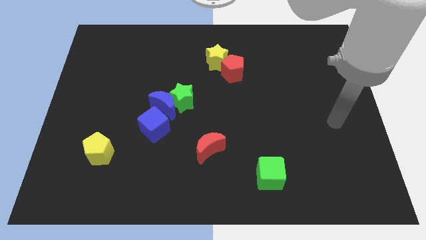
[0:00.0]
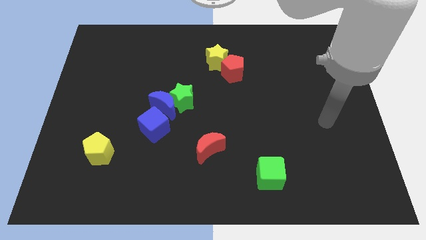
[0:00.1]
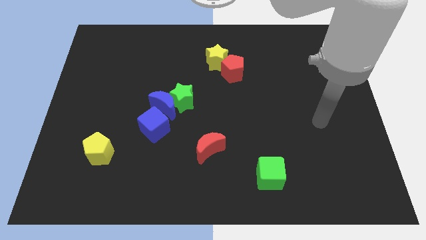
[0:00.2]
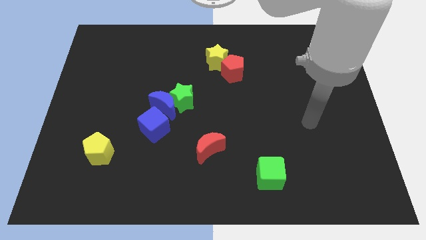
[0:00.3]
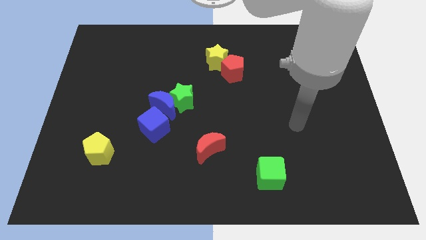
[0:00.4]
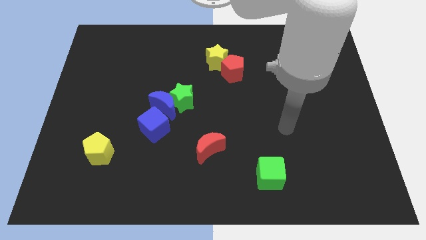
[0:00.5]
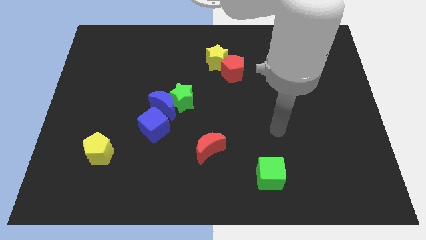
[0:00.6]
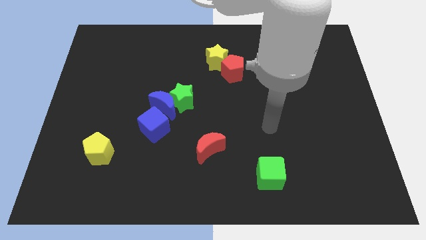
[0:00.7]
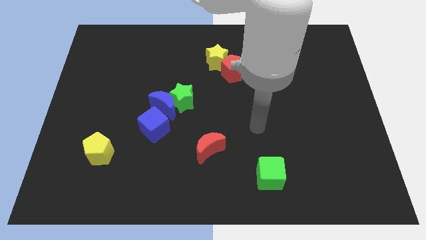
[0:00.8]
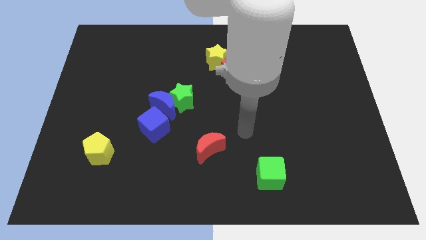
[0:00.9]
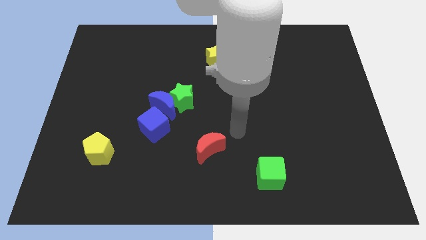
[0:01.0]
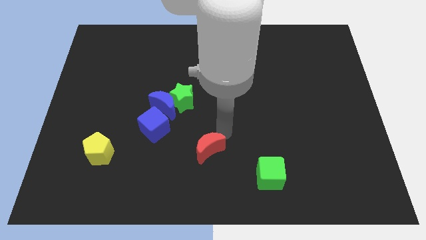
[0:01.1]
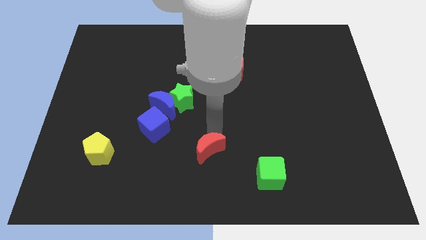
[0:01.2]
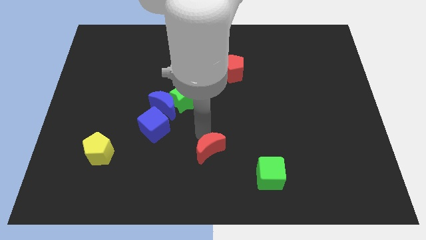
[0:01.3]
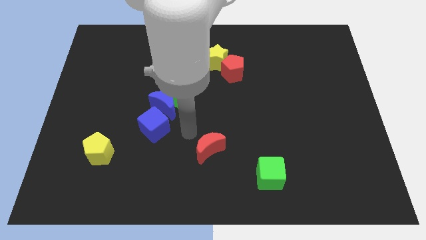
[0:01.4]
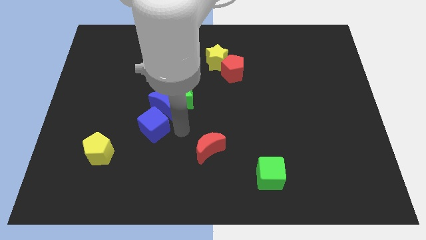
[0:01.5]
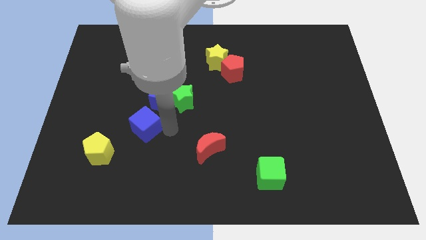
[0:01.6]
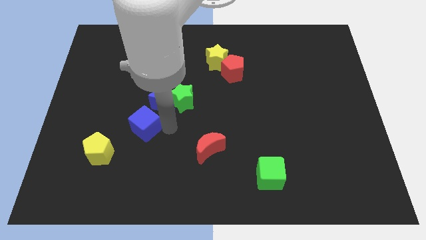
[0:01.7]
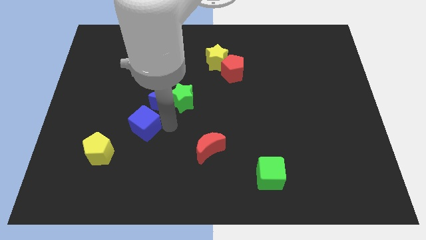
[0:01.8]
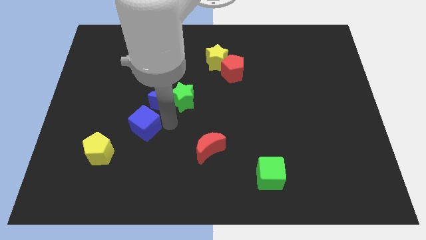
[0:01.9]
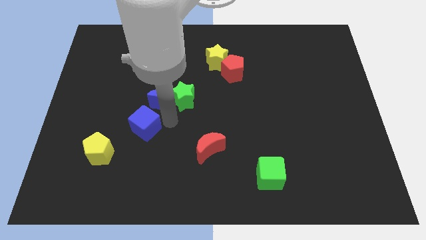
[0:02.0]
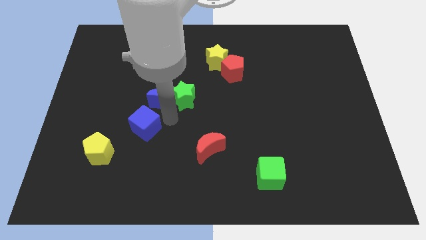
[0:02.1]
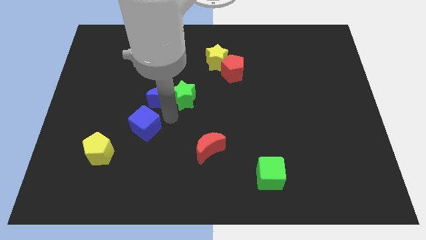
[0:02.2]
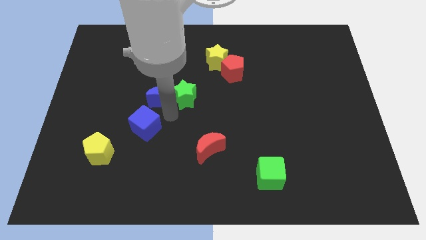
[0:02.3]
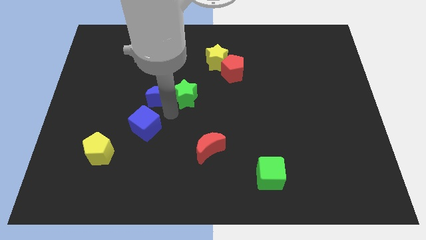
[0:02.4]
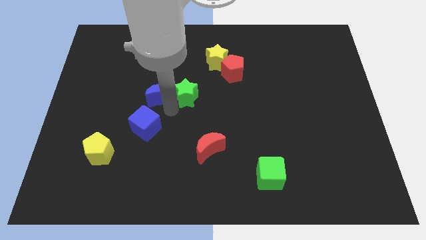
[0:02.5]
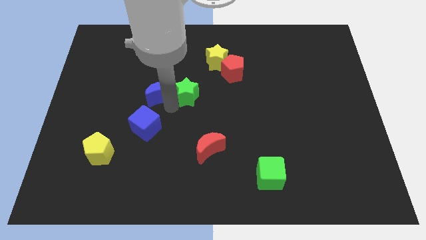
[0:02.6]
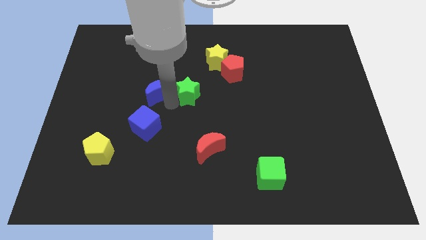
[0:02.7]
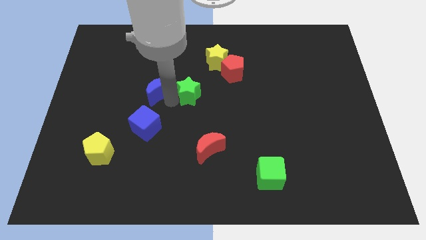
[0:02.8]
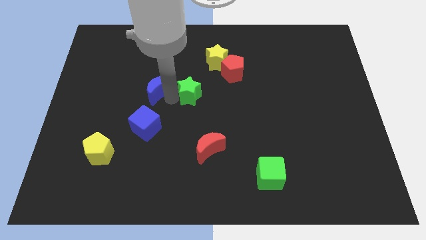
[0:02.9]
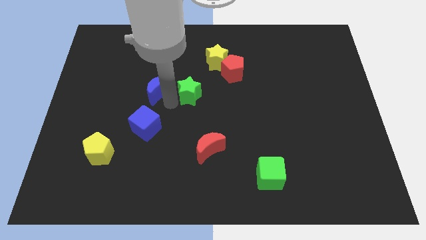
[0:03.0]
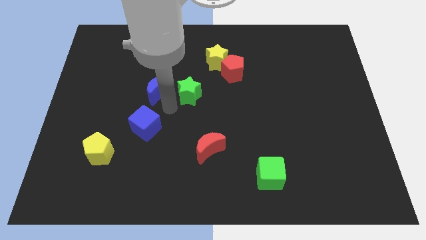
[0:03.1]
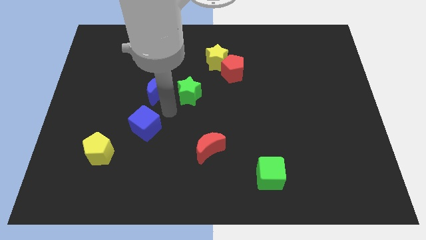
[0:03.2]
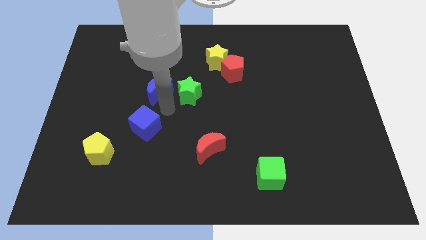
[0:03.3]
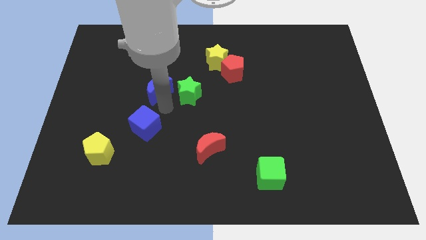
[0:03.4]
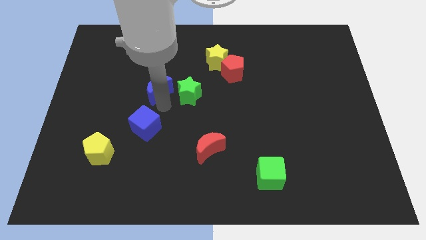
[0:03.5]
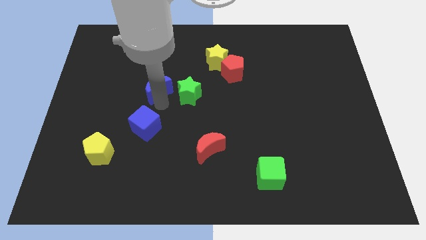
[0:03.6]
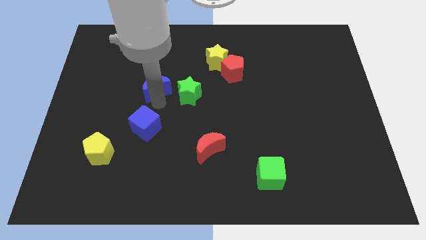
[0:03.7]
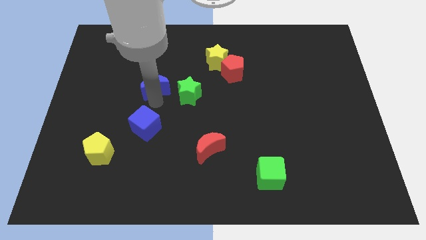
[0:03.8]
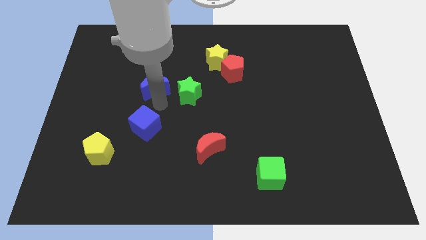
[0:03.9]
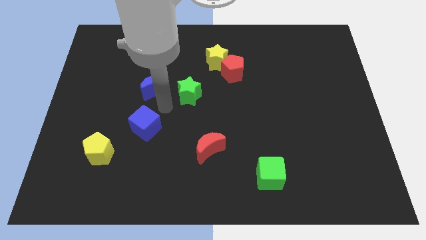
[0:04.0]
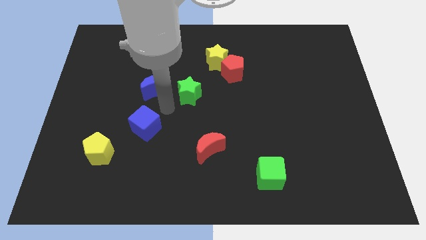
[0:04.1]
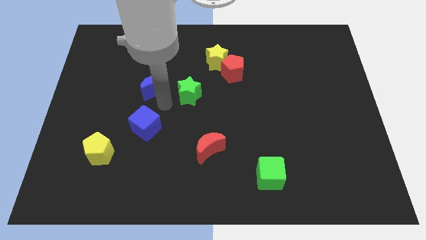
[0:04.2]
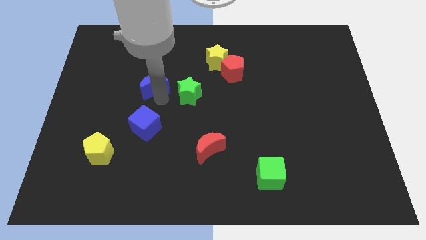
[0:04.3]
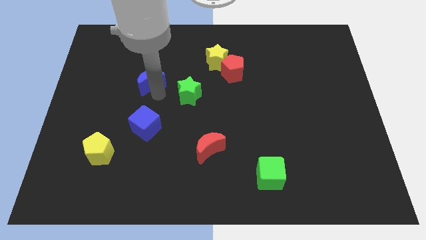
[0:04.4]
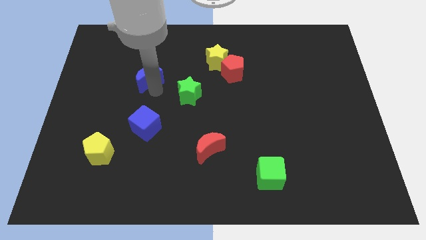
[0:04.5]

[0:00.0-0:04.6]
move the blue moon away from the green star and blue cube

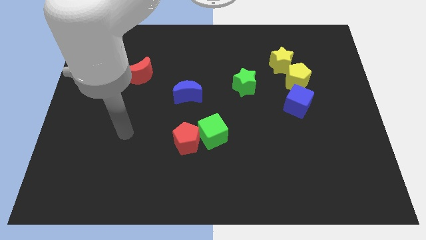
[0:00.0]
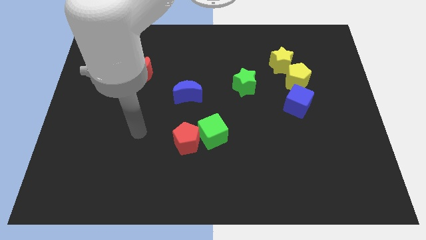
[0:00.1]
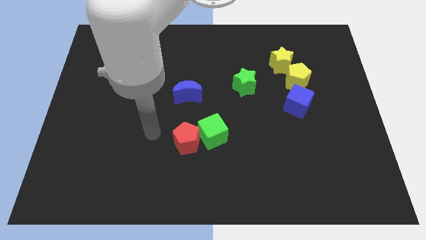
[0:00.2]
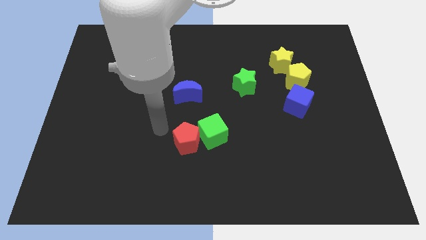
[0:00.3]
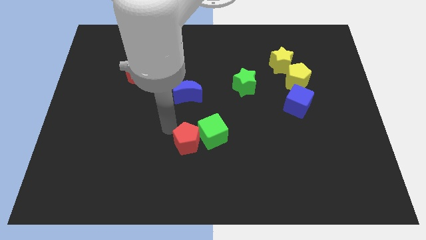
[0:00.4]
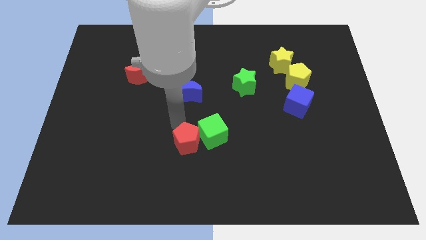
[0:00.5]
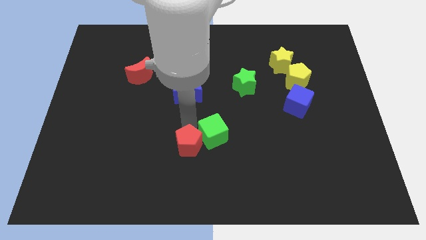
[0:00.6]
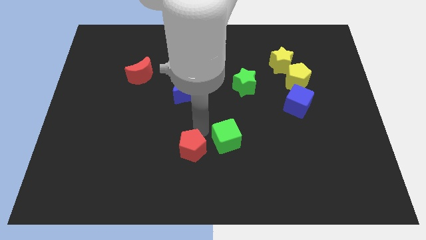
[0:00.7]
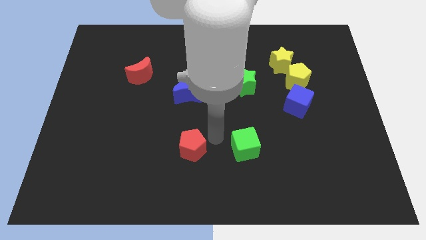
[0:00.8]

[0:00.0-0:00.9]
move the red pentagon away from the green cube

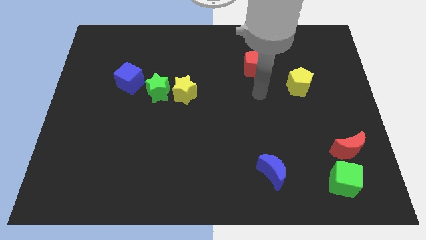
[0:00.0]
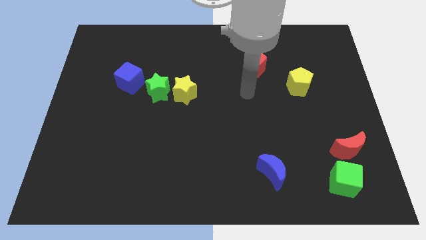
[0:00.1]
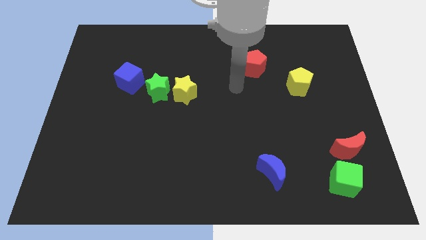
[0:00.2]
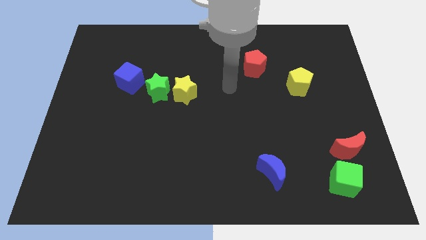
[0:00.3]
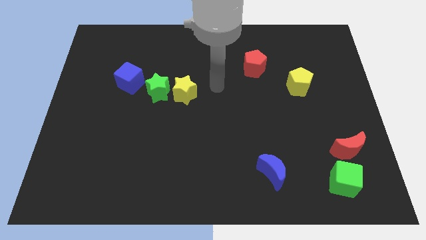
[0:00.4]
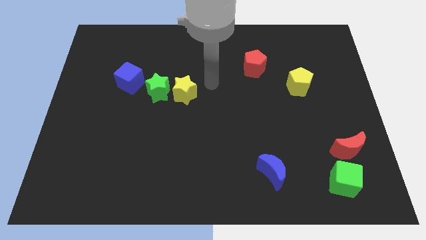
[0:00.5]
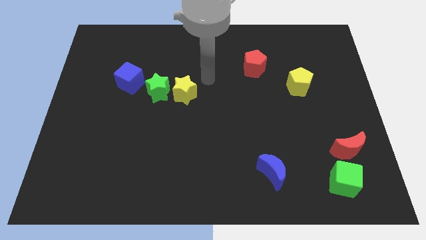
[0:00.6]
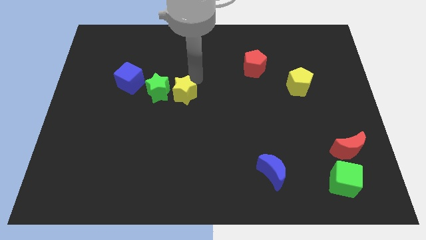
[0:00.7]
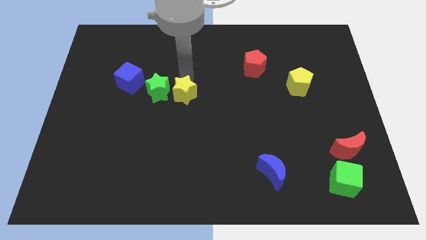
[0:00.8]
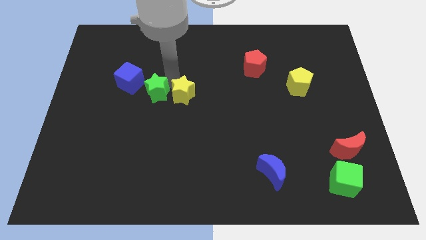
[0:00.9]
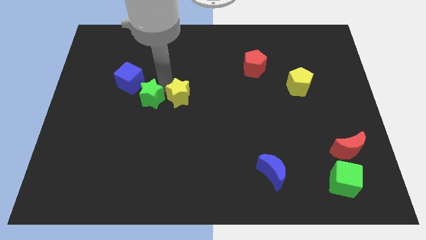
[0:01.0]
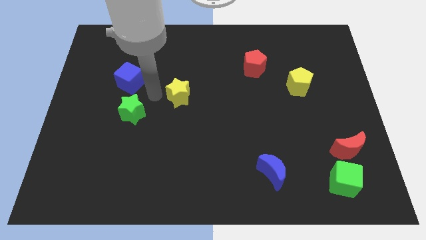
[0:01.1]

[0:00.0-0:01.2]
pull the yellow star apart from the green star

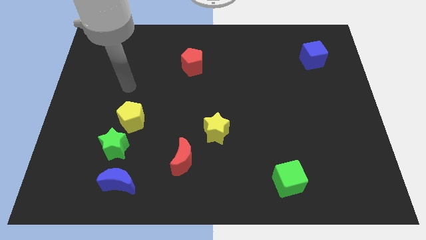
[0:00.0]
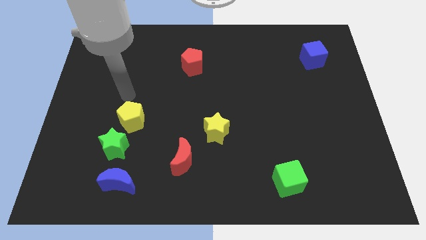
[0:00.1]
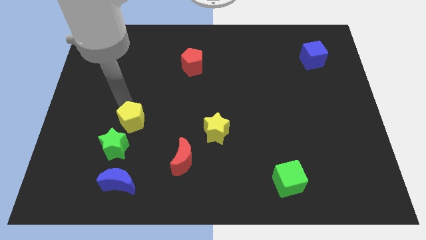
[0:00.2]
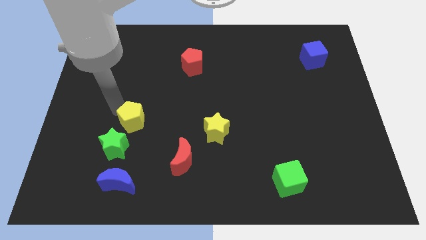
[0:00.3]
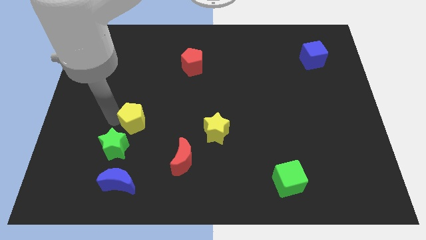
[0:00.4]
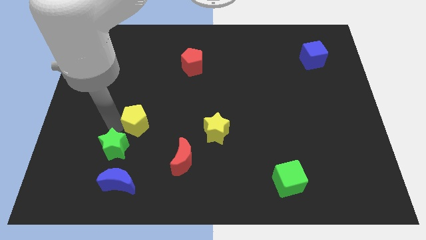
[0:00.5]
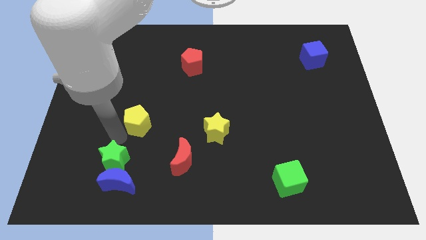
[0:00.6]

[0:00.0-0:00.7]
pull the yellow pentagon apart from the green star

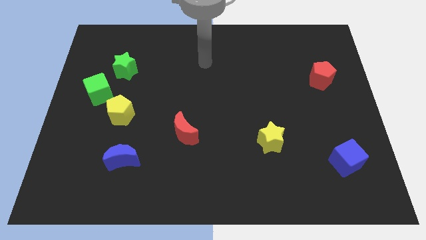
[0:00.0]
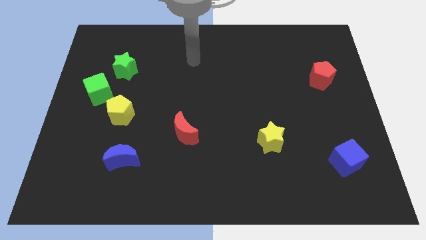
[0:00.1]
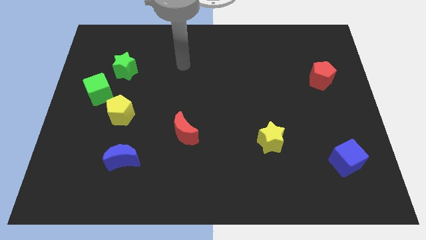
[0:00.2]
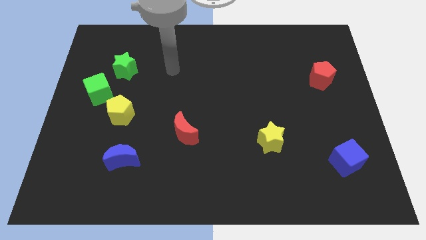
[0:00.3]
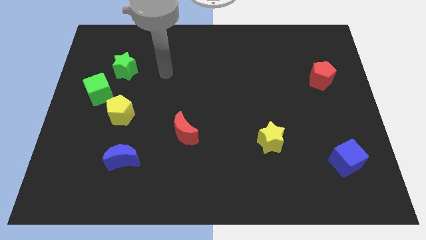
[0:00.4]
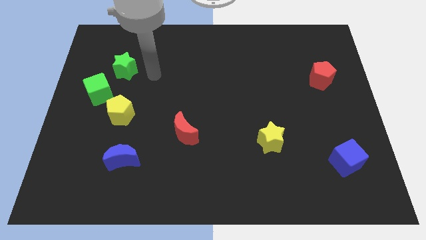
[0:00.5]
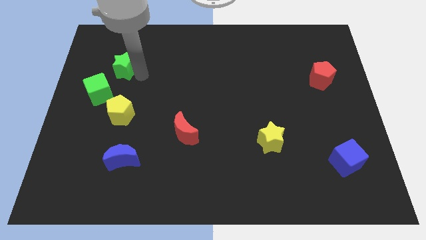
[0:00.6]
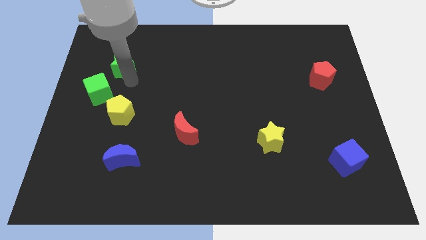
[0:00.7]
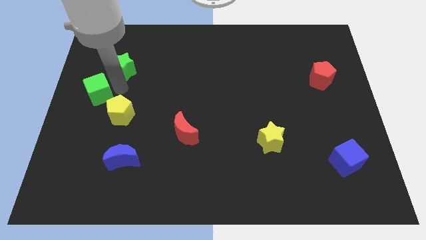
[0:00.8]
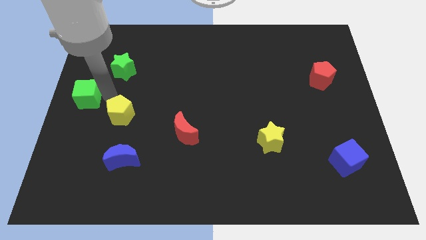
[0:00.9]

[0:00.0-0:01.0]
move the yellow pentagon away from the green cube

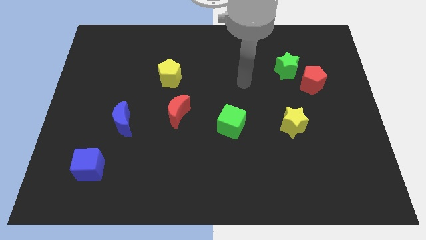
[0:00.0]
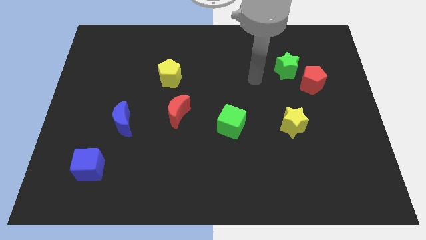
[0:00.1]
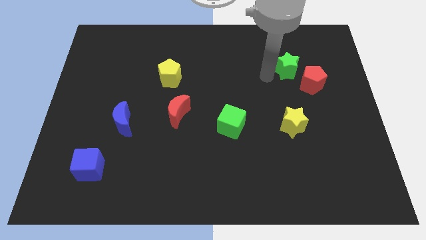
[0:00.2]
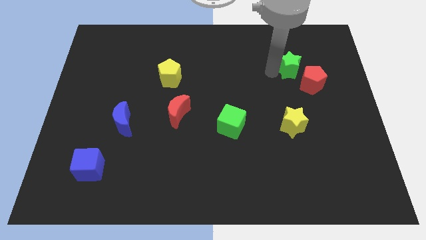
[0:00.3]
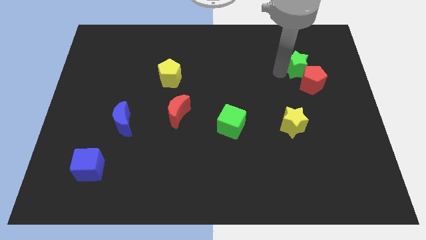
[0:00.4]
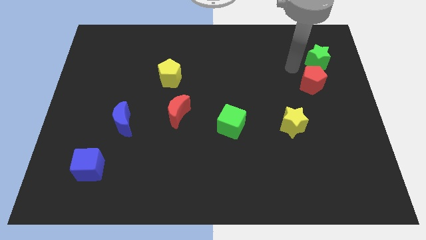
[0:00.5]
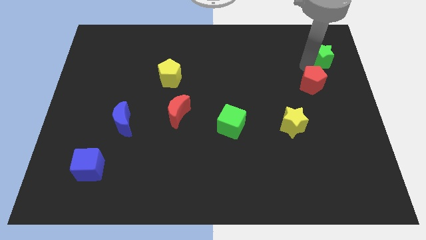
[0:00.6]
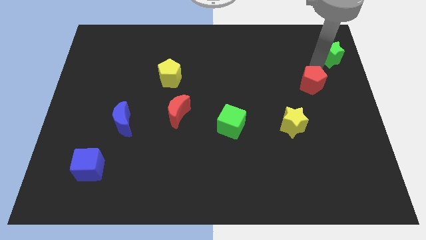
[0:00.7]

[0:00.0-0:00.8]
pull the red pentagon apart from the green star
